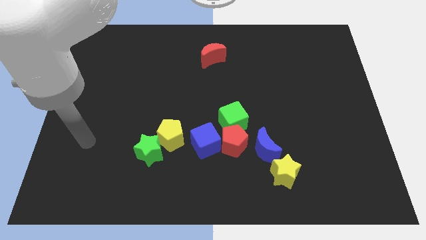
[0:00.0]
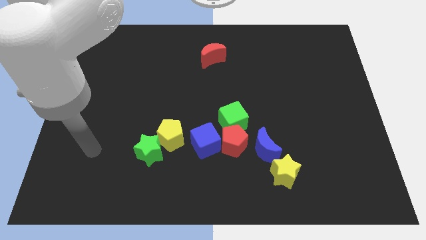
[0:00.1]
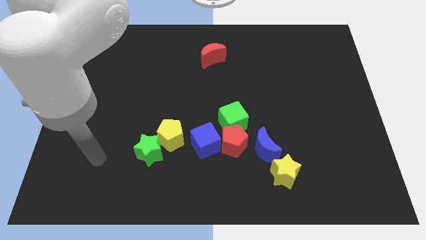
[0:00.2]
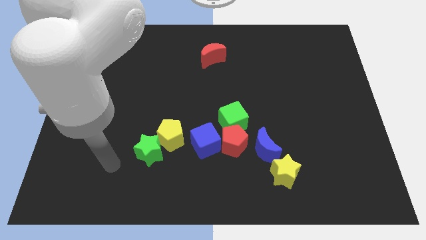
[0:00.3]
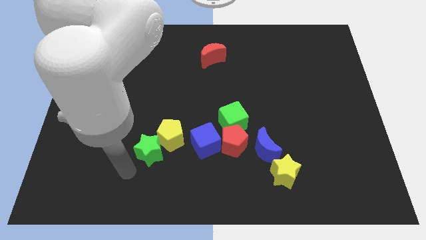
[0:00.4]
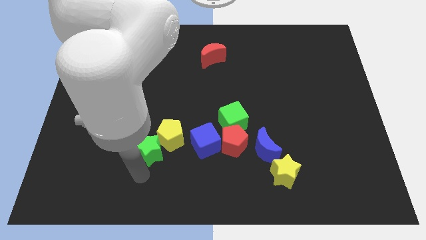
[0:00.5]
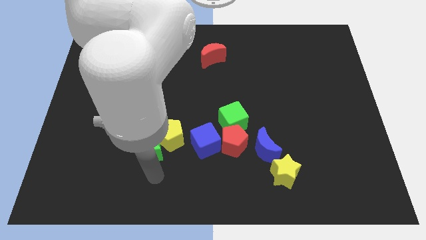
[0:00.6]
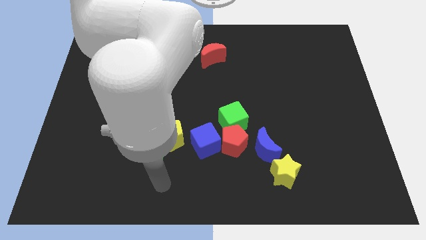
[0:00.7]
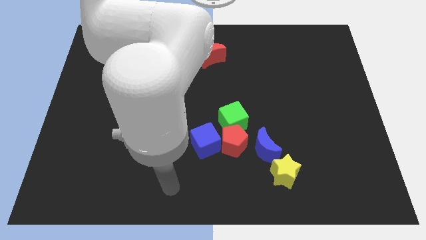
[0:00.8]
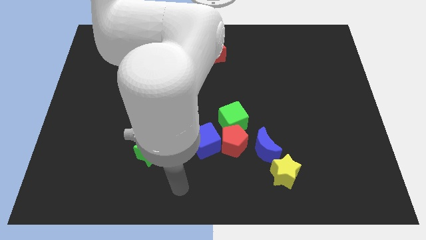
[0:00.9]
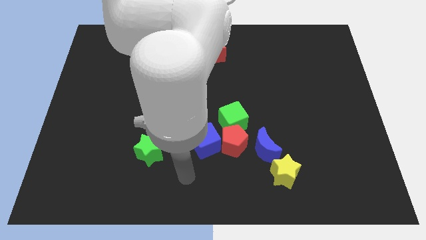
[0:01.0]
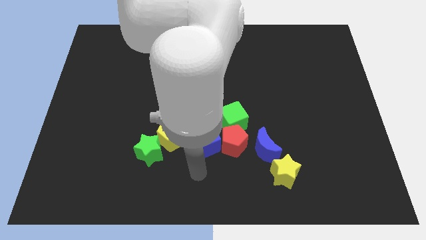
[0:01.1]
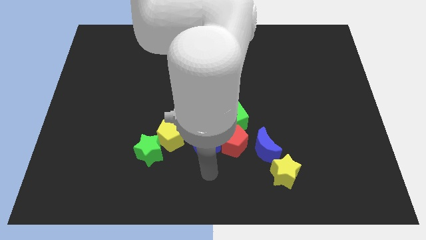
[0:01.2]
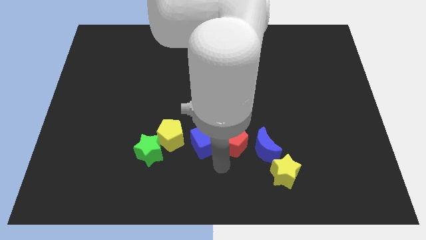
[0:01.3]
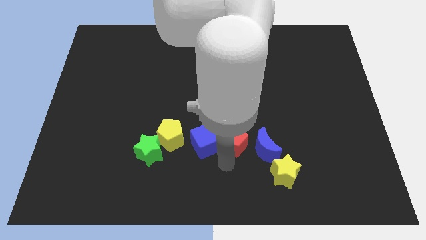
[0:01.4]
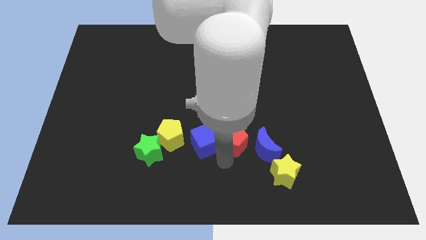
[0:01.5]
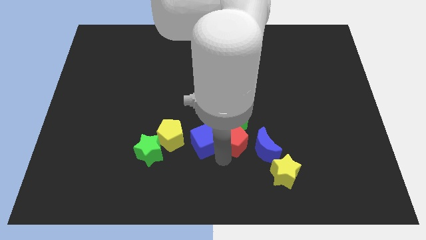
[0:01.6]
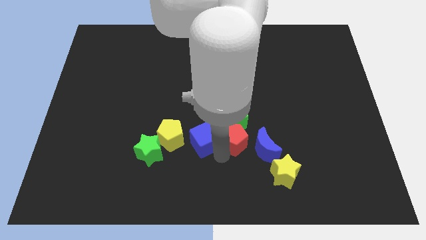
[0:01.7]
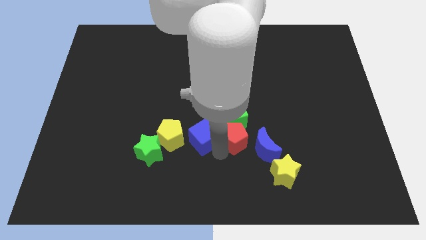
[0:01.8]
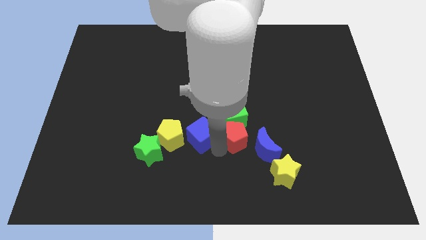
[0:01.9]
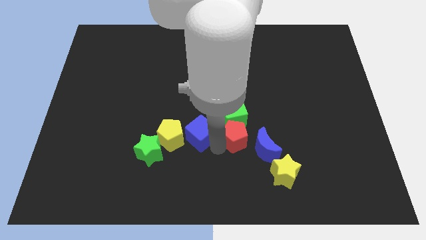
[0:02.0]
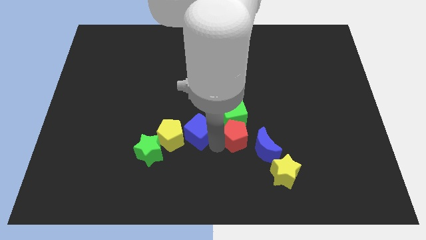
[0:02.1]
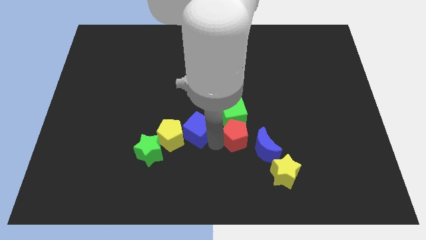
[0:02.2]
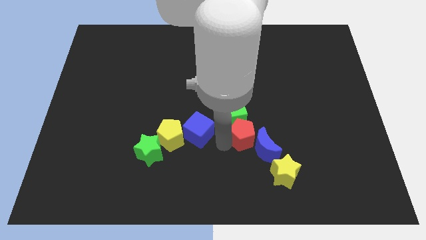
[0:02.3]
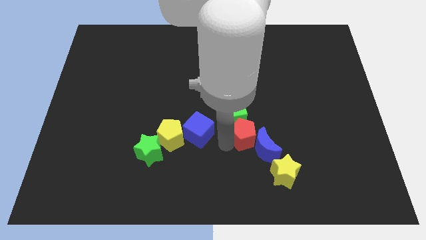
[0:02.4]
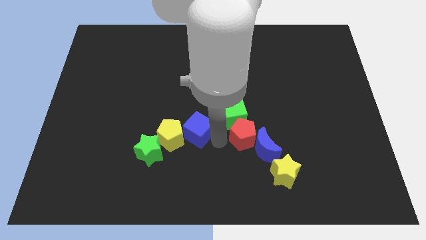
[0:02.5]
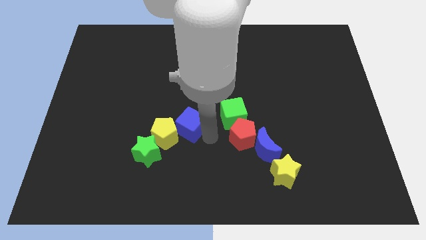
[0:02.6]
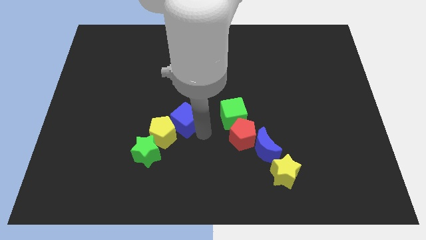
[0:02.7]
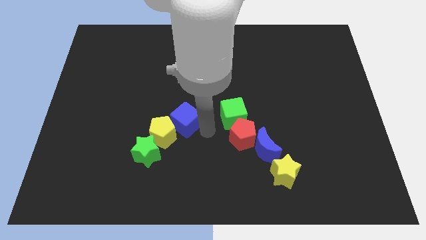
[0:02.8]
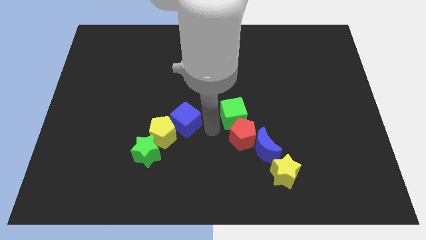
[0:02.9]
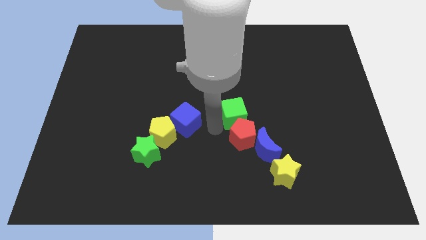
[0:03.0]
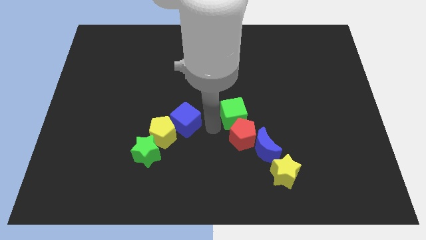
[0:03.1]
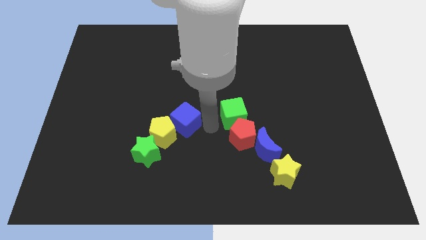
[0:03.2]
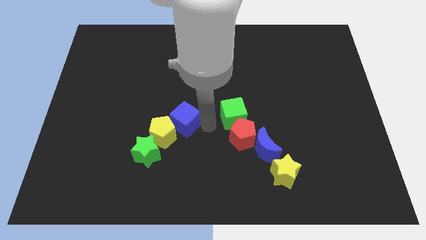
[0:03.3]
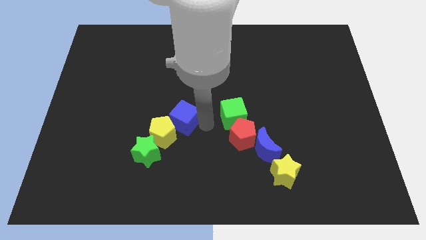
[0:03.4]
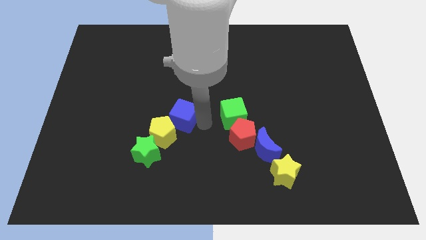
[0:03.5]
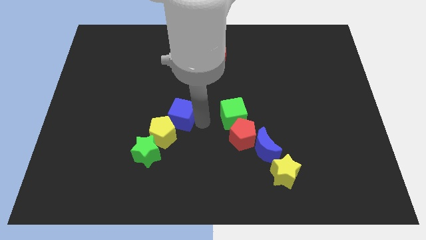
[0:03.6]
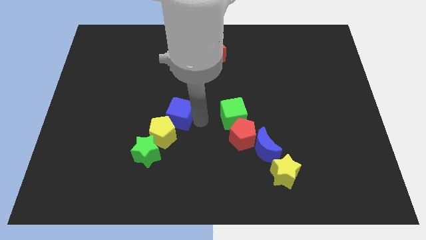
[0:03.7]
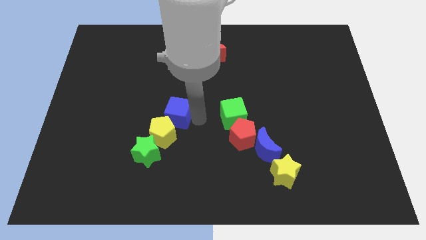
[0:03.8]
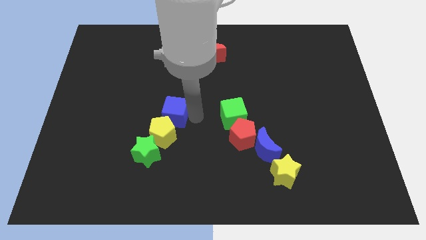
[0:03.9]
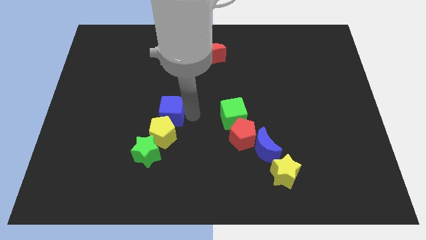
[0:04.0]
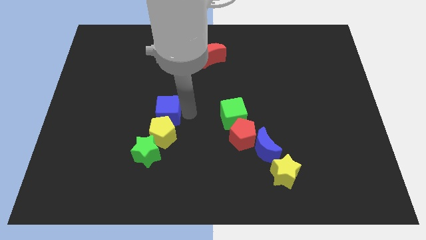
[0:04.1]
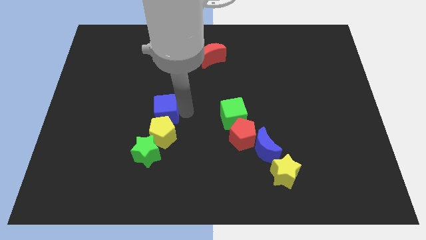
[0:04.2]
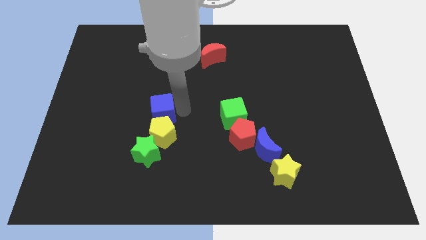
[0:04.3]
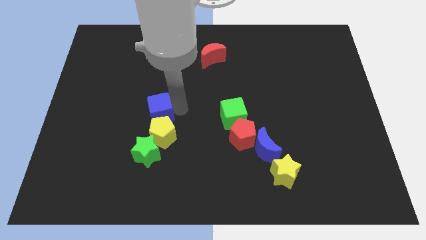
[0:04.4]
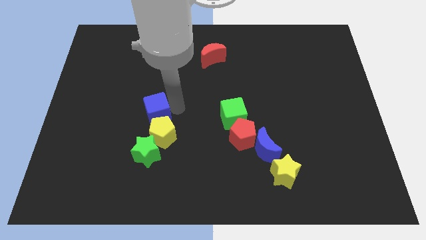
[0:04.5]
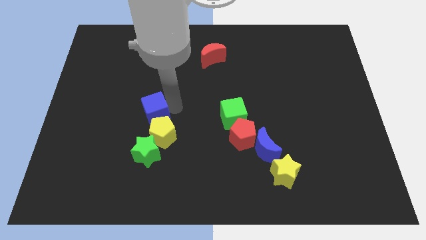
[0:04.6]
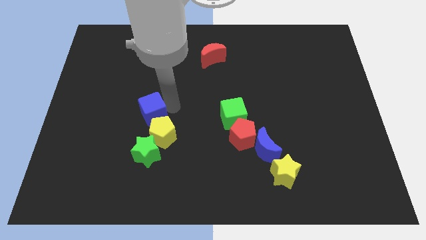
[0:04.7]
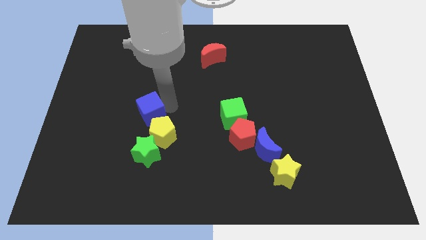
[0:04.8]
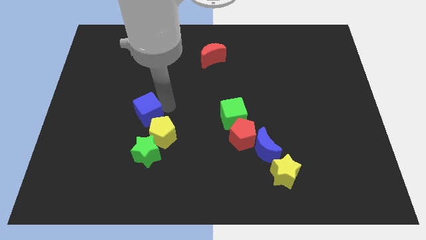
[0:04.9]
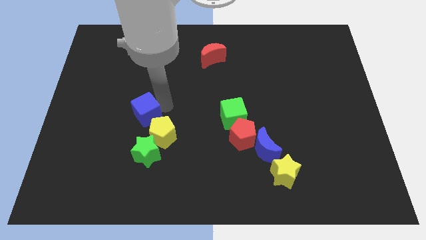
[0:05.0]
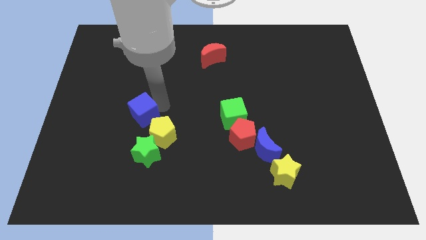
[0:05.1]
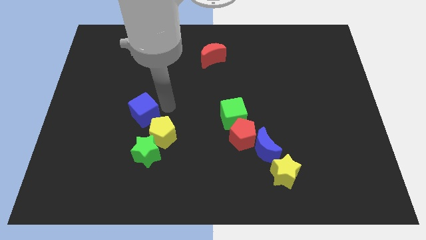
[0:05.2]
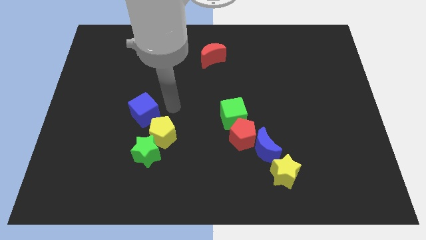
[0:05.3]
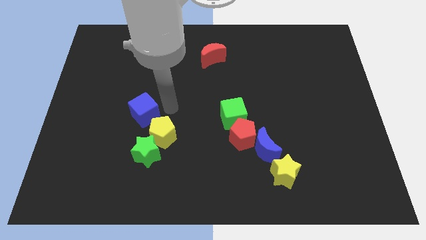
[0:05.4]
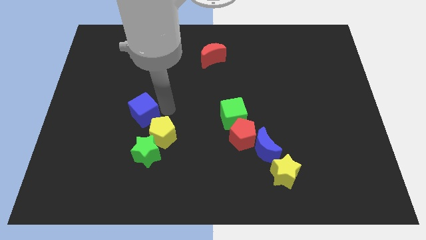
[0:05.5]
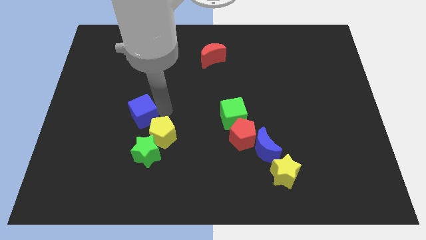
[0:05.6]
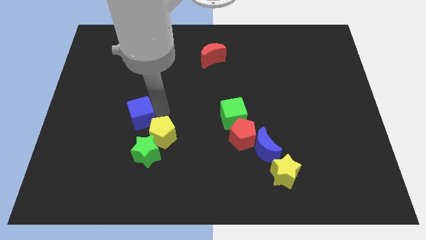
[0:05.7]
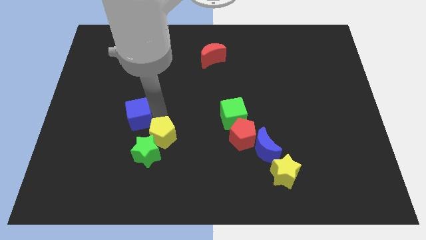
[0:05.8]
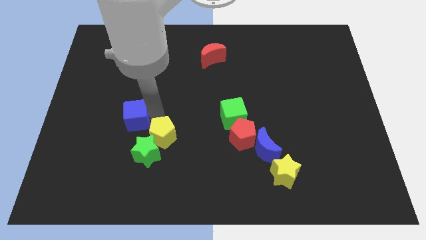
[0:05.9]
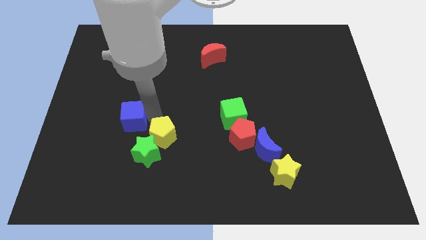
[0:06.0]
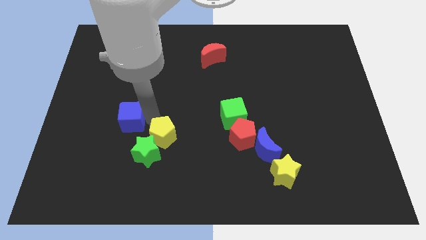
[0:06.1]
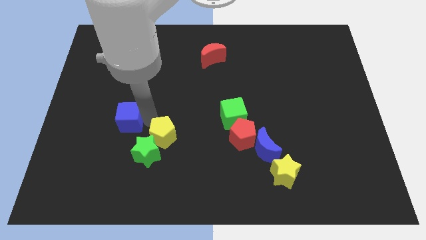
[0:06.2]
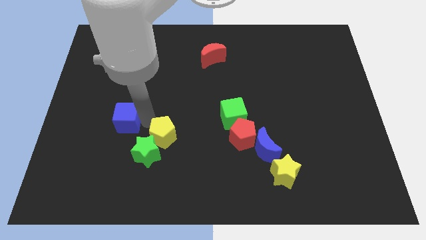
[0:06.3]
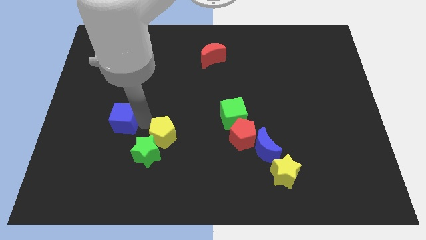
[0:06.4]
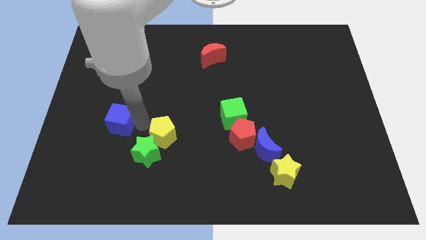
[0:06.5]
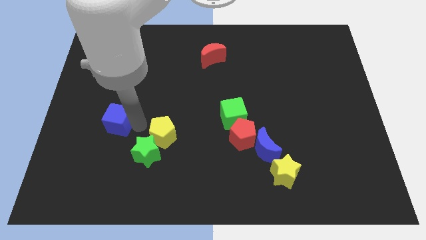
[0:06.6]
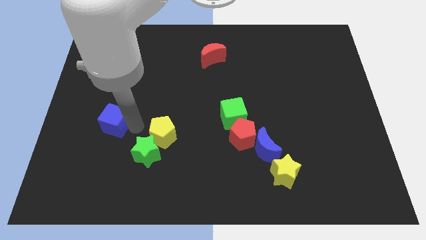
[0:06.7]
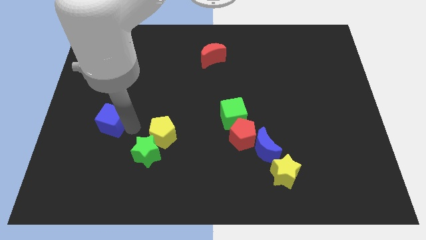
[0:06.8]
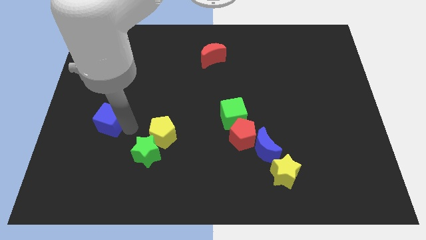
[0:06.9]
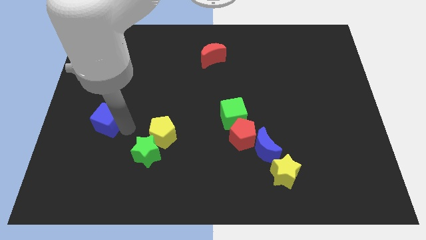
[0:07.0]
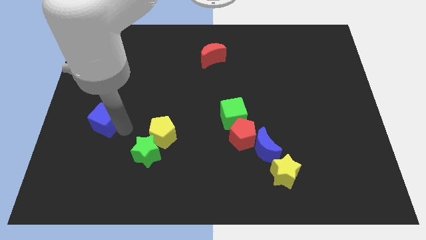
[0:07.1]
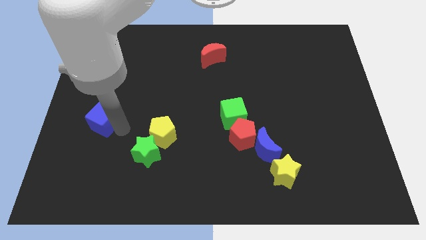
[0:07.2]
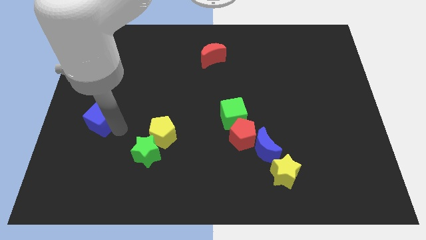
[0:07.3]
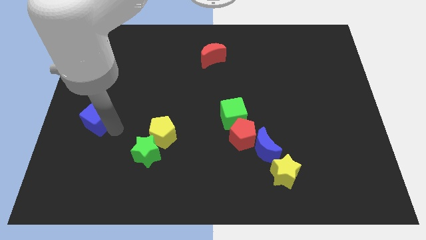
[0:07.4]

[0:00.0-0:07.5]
put the blue cube to the left side of the board

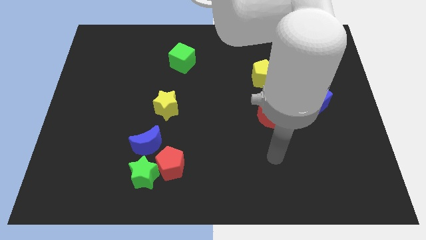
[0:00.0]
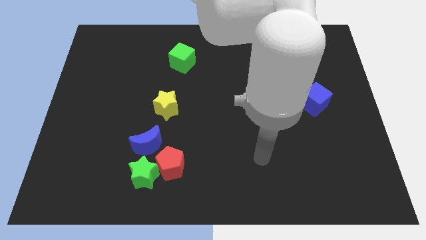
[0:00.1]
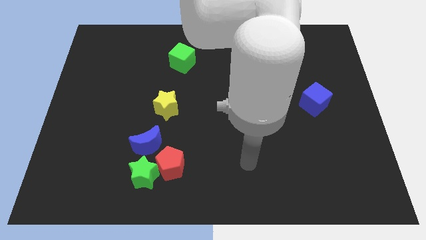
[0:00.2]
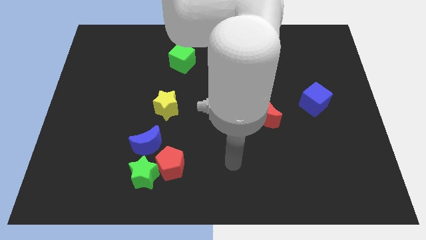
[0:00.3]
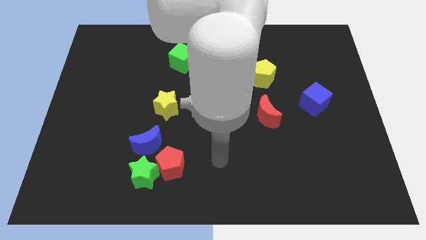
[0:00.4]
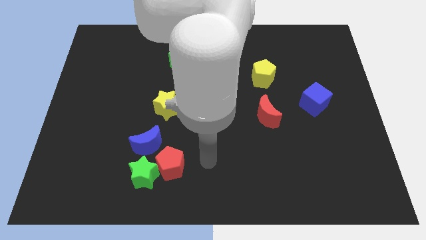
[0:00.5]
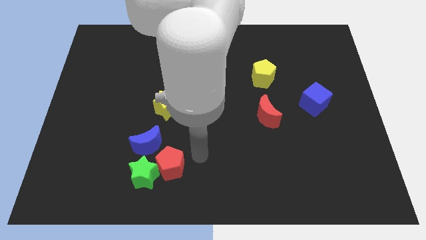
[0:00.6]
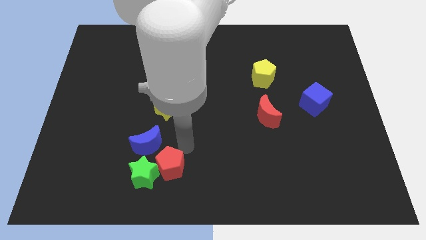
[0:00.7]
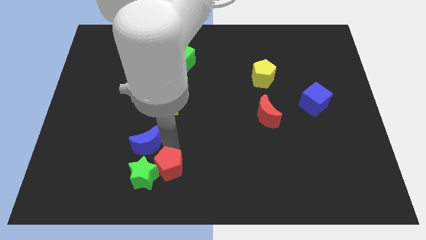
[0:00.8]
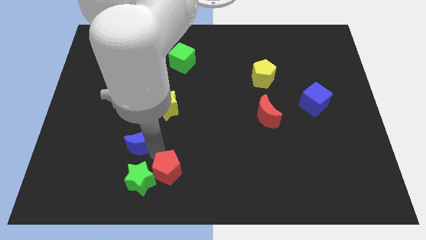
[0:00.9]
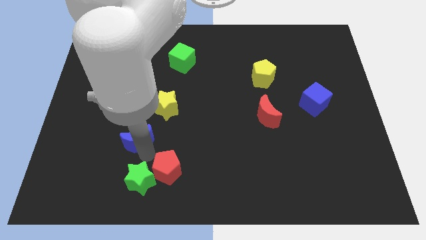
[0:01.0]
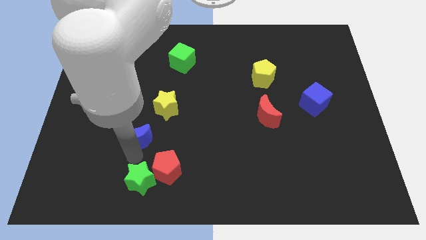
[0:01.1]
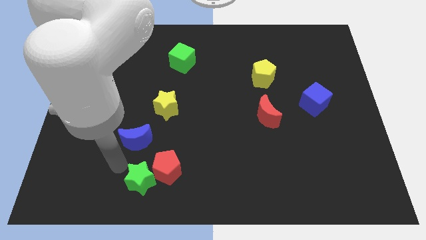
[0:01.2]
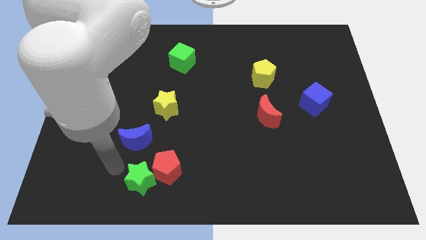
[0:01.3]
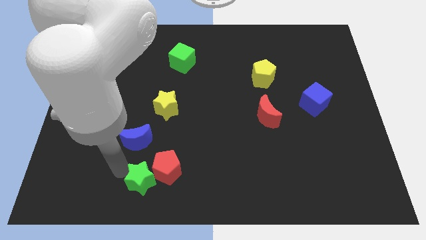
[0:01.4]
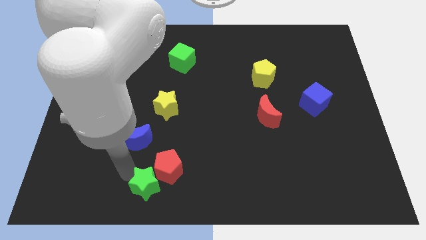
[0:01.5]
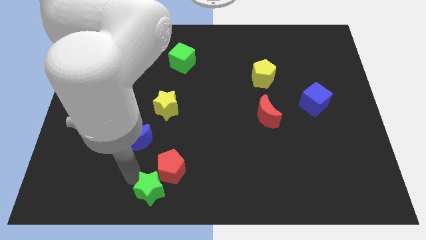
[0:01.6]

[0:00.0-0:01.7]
move the green star to the bottom
